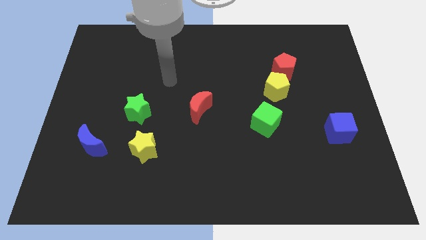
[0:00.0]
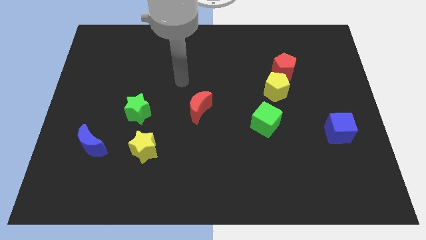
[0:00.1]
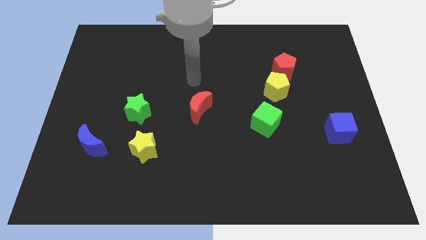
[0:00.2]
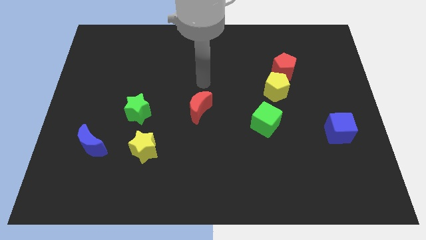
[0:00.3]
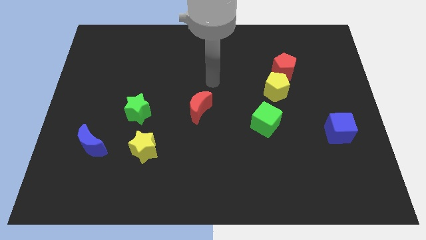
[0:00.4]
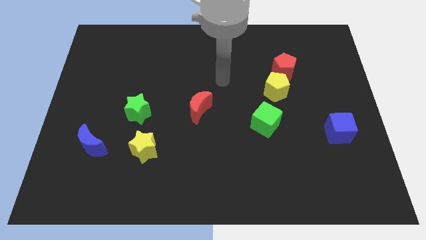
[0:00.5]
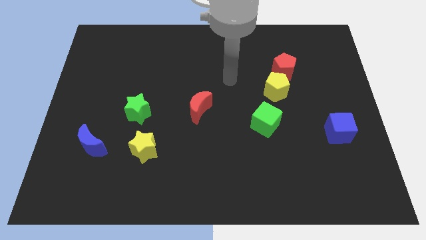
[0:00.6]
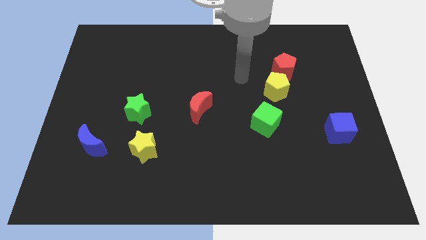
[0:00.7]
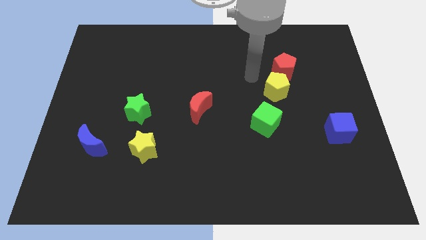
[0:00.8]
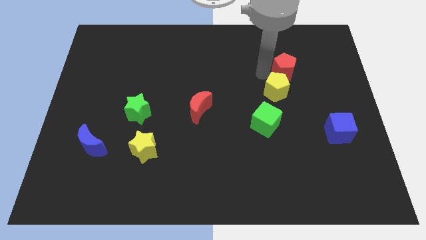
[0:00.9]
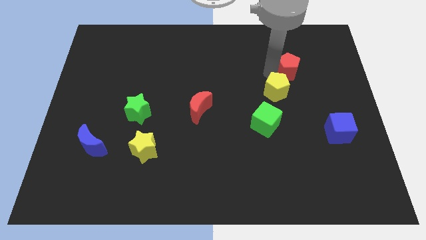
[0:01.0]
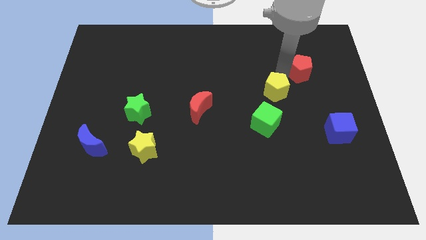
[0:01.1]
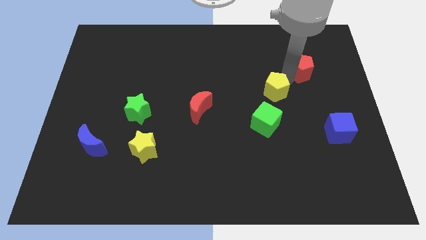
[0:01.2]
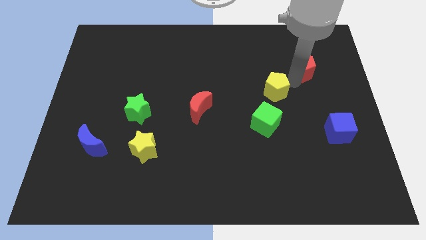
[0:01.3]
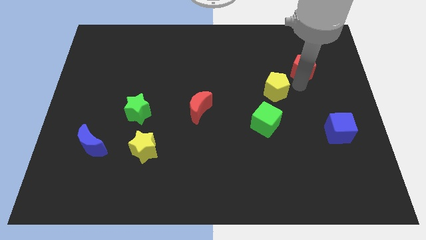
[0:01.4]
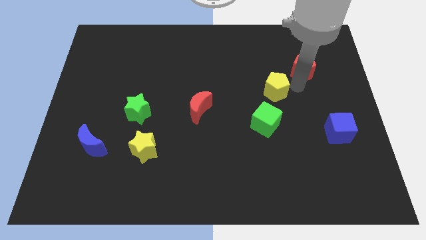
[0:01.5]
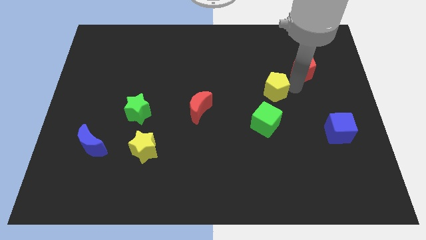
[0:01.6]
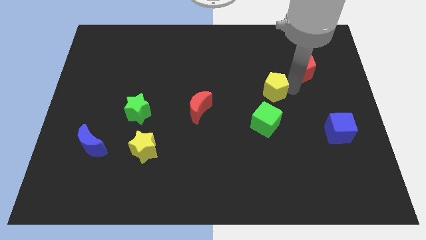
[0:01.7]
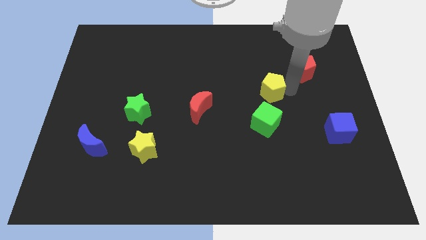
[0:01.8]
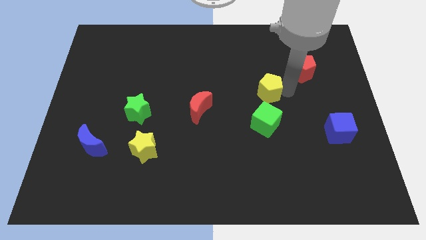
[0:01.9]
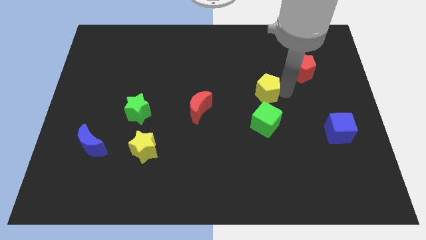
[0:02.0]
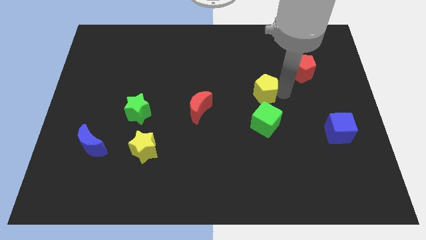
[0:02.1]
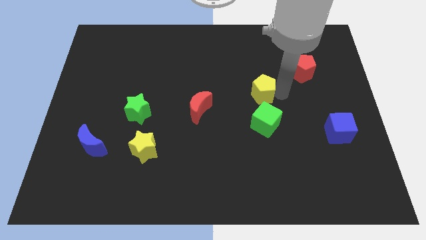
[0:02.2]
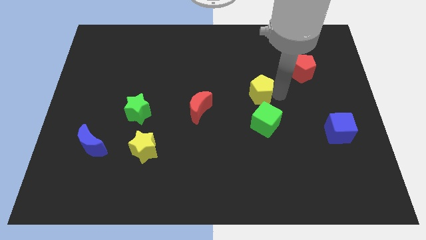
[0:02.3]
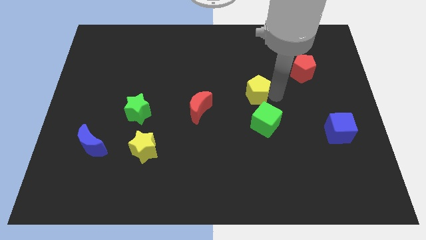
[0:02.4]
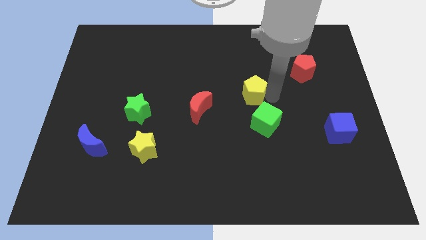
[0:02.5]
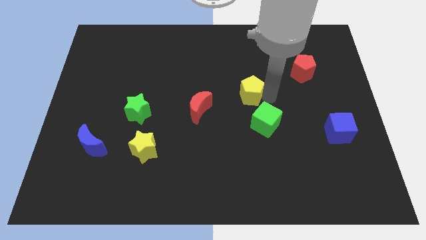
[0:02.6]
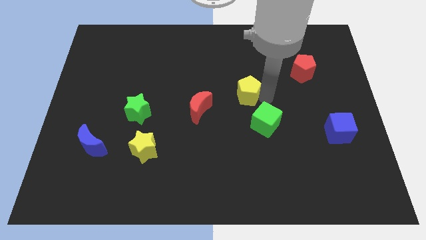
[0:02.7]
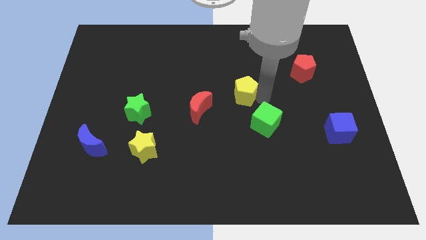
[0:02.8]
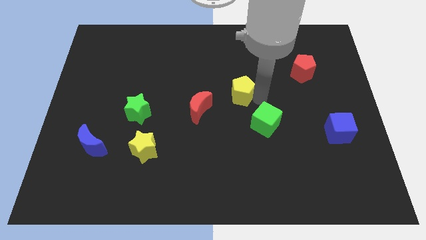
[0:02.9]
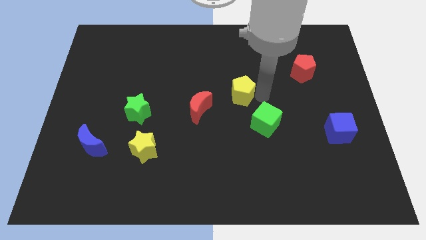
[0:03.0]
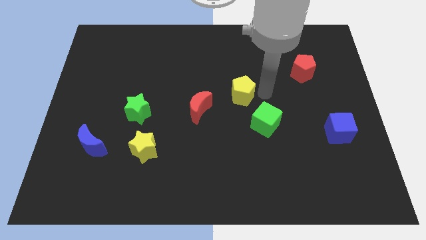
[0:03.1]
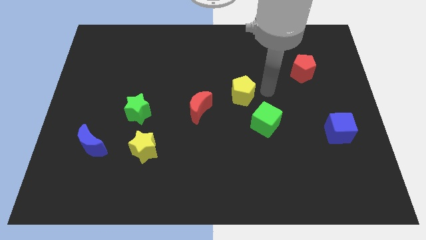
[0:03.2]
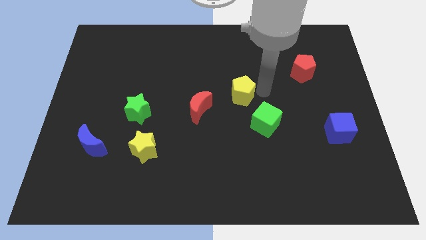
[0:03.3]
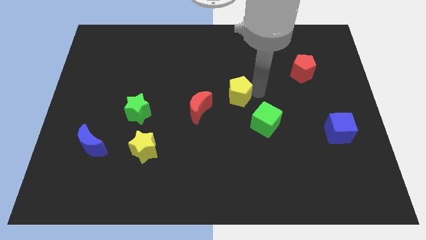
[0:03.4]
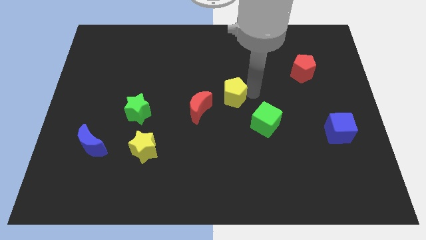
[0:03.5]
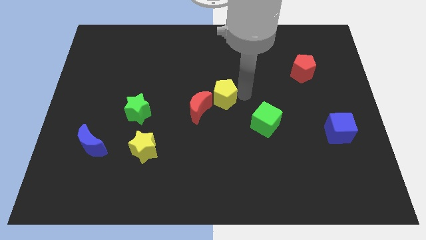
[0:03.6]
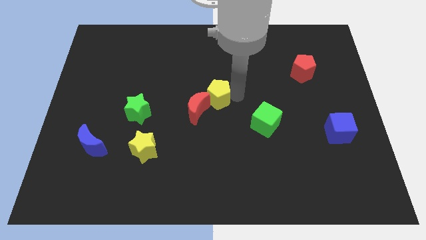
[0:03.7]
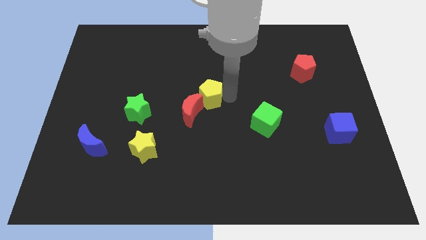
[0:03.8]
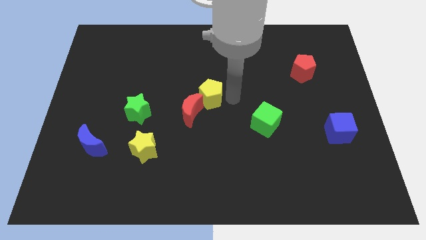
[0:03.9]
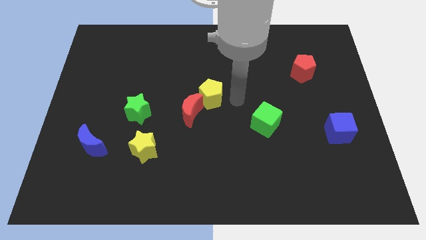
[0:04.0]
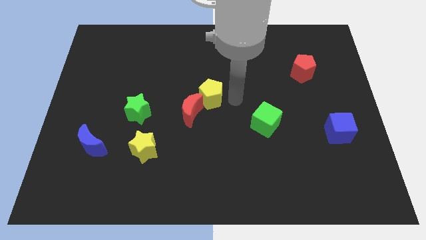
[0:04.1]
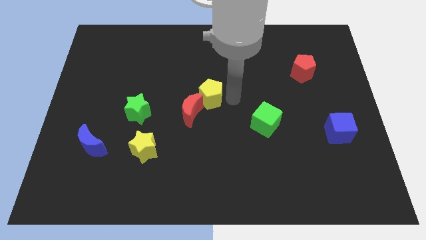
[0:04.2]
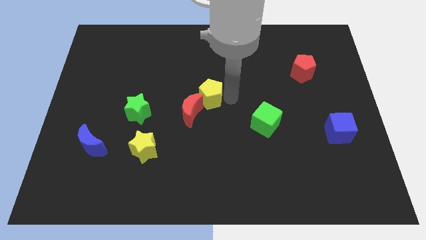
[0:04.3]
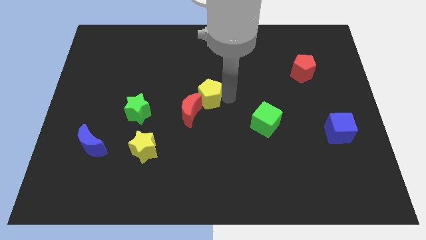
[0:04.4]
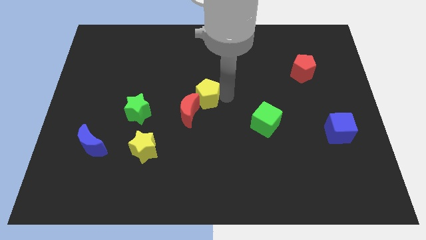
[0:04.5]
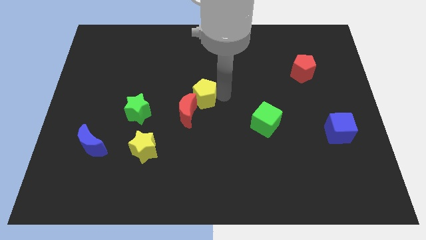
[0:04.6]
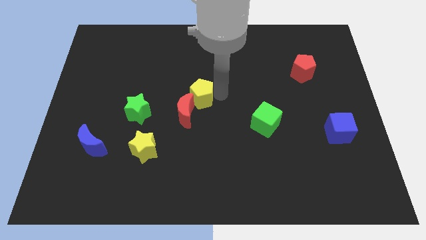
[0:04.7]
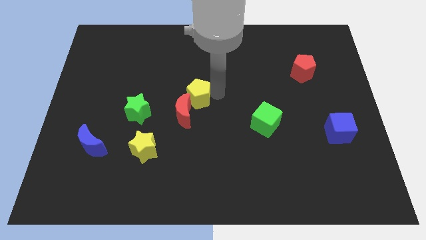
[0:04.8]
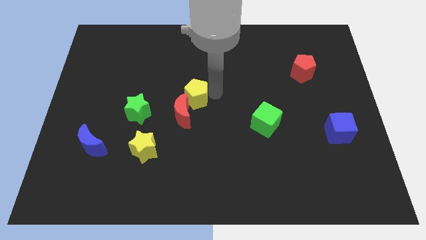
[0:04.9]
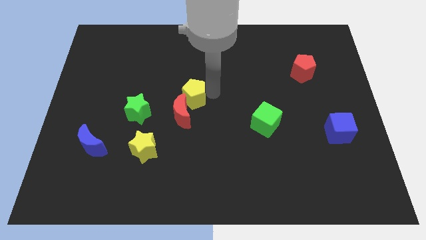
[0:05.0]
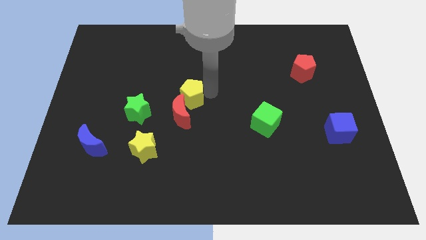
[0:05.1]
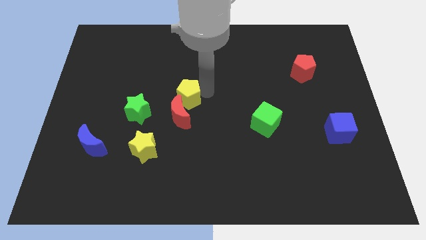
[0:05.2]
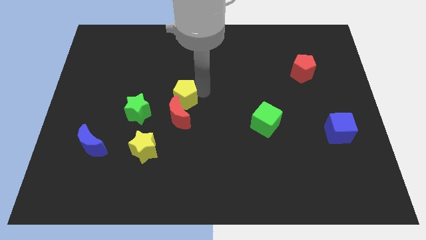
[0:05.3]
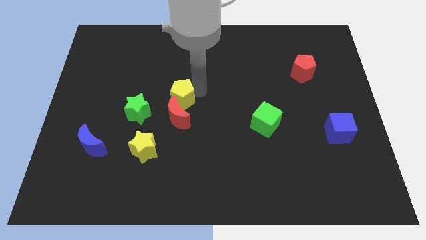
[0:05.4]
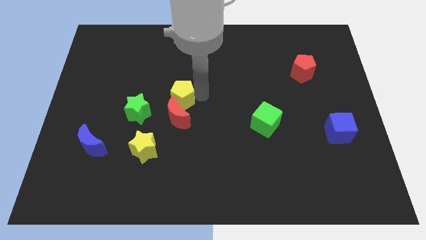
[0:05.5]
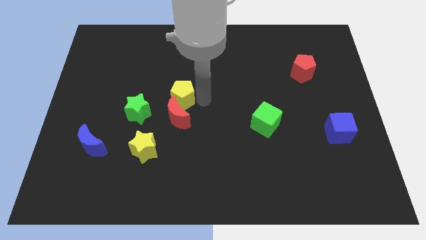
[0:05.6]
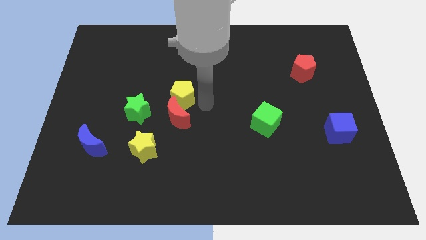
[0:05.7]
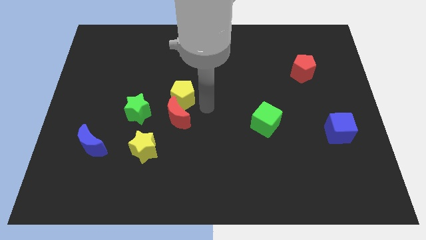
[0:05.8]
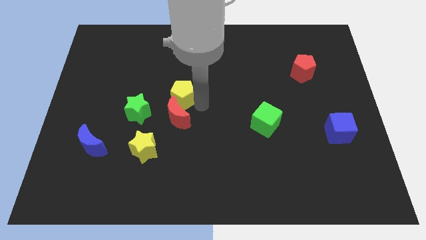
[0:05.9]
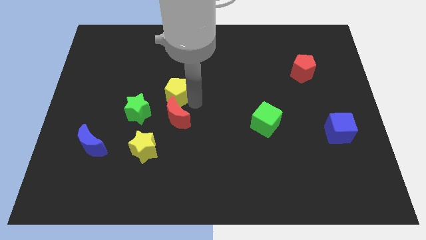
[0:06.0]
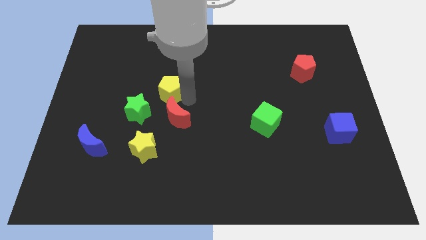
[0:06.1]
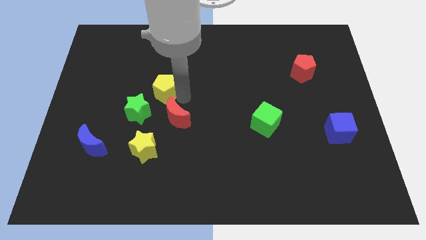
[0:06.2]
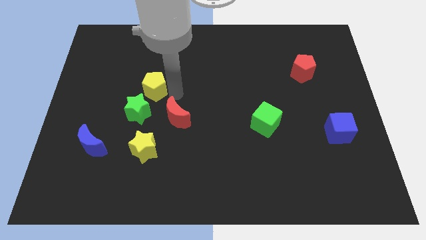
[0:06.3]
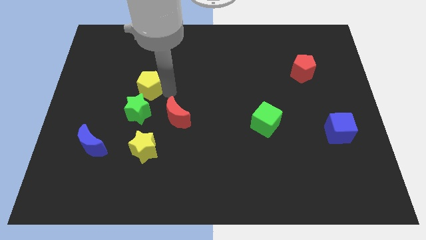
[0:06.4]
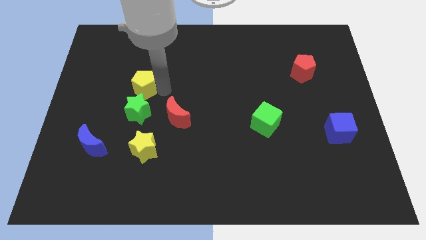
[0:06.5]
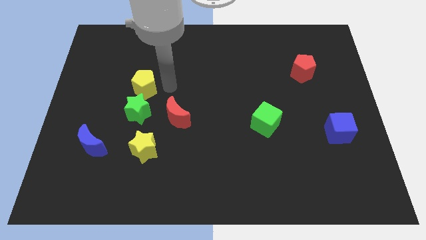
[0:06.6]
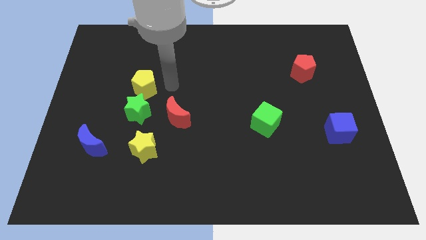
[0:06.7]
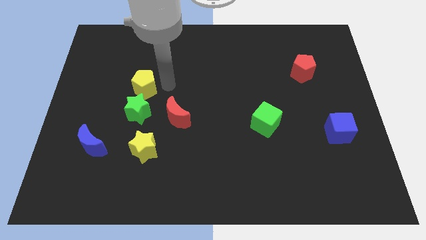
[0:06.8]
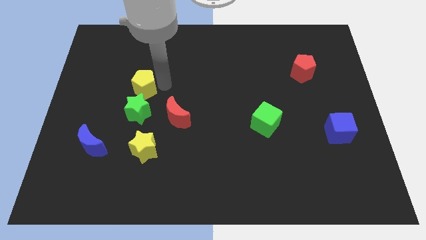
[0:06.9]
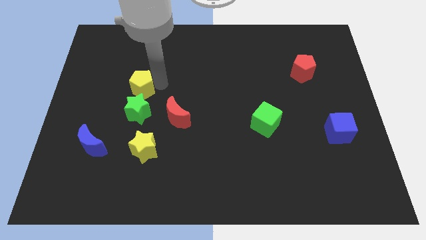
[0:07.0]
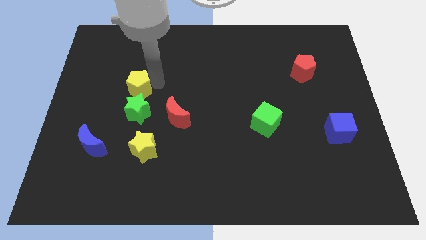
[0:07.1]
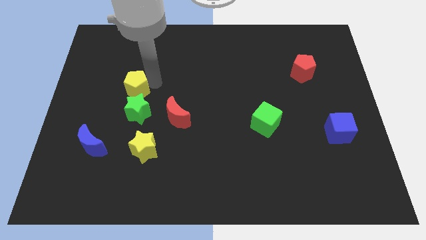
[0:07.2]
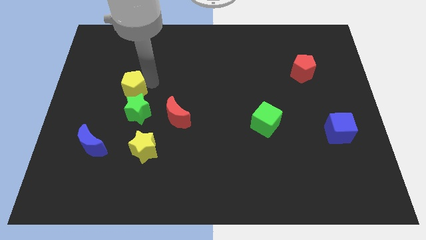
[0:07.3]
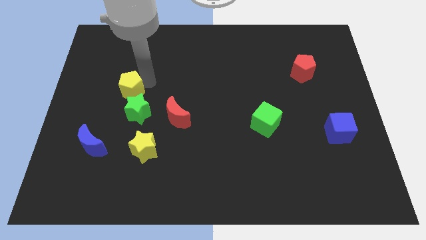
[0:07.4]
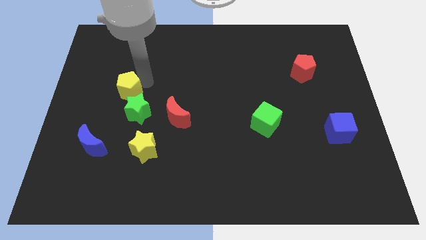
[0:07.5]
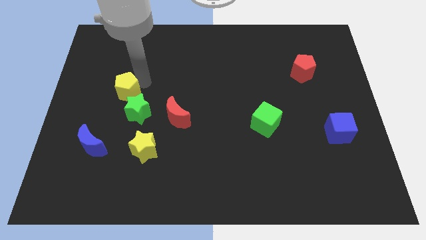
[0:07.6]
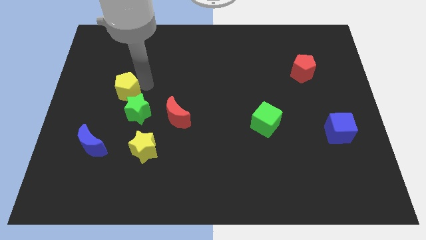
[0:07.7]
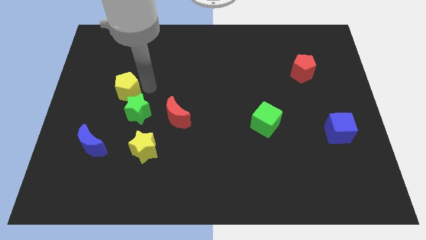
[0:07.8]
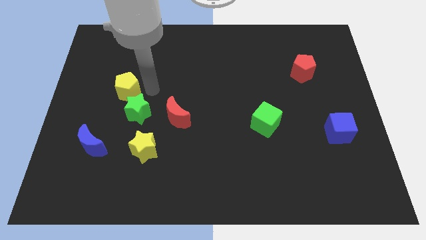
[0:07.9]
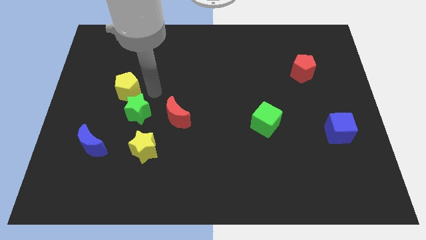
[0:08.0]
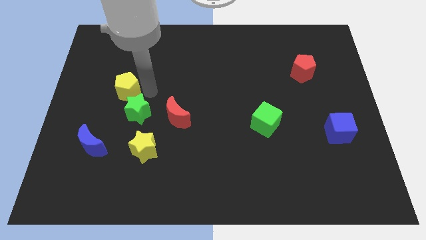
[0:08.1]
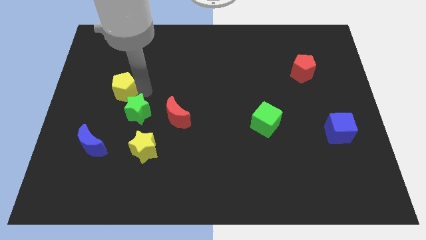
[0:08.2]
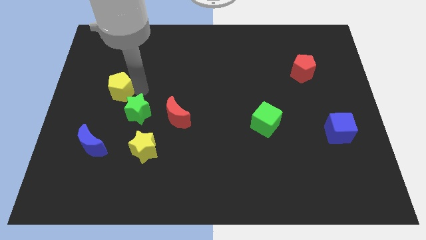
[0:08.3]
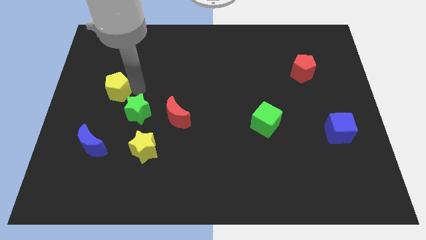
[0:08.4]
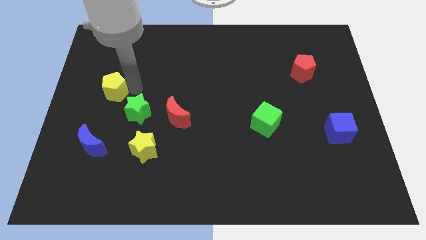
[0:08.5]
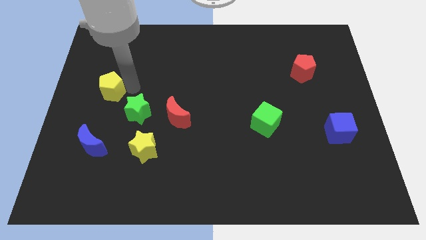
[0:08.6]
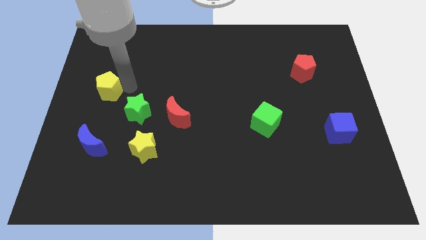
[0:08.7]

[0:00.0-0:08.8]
push the yellow pentagon to the left side
